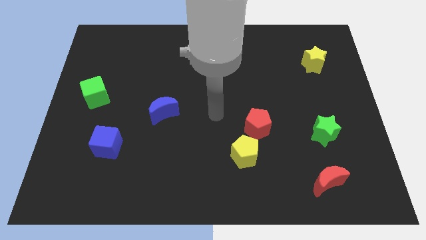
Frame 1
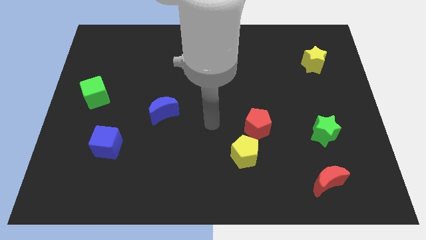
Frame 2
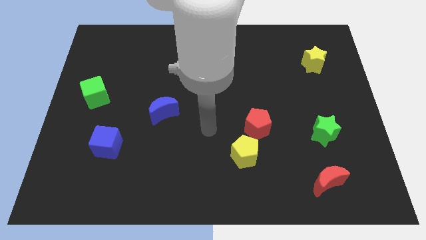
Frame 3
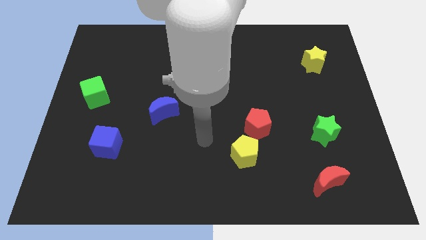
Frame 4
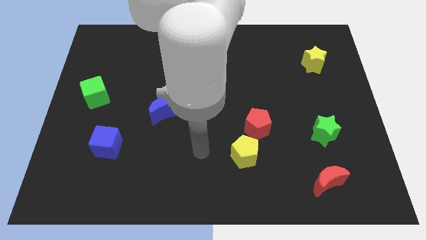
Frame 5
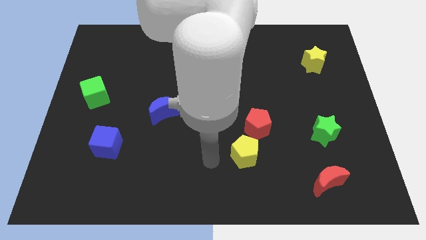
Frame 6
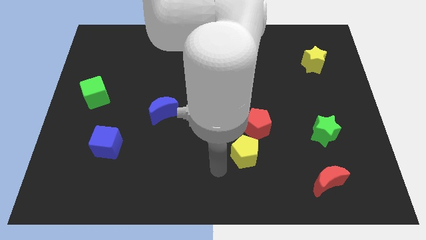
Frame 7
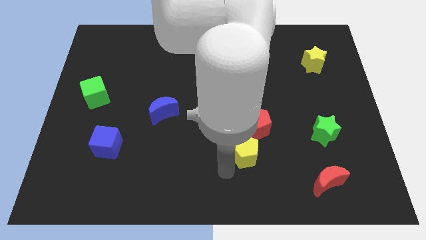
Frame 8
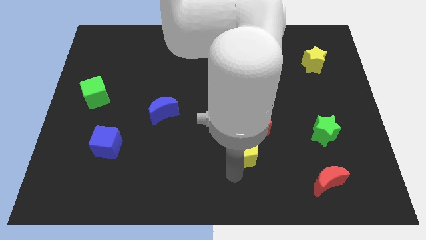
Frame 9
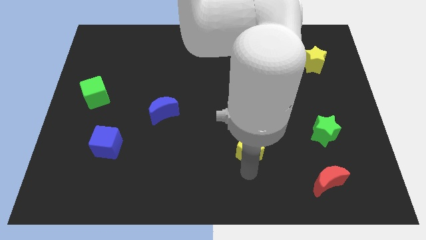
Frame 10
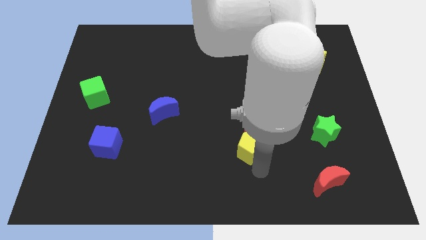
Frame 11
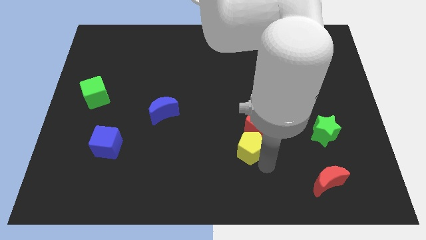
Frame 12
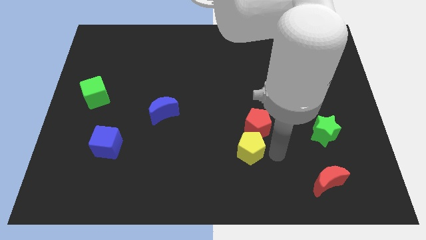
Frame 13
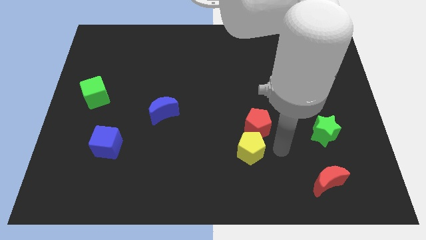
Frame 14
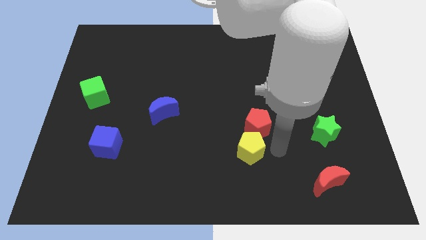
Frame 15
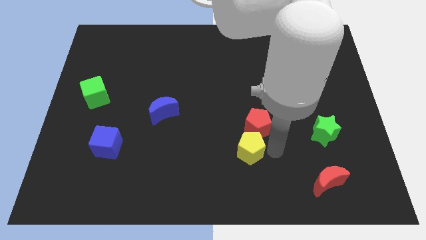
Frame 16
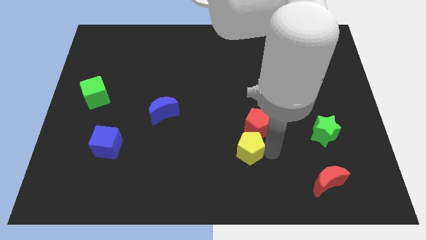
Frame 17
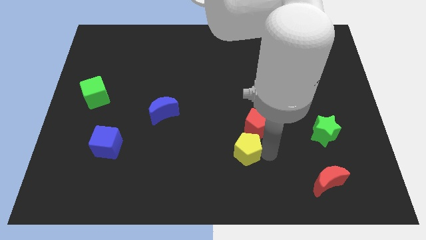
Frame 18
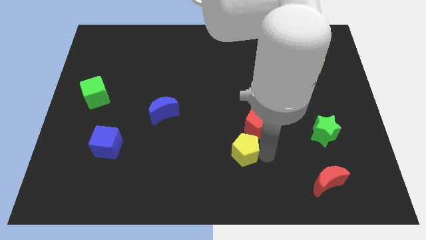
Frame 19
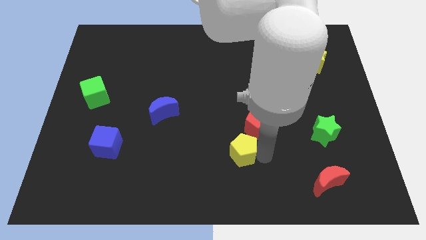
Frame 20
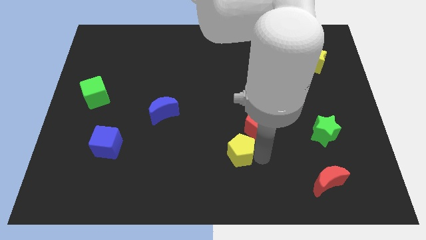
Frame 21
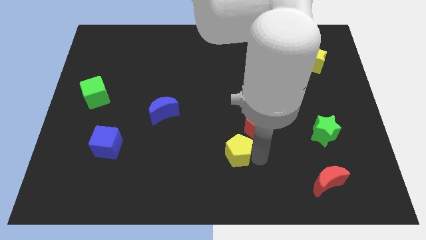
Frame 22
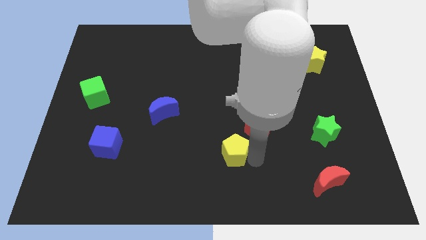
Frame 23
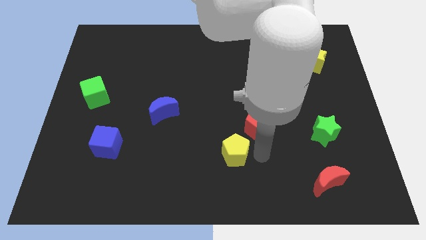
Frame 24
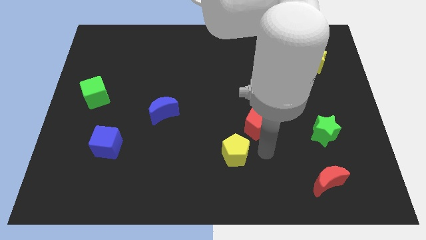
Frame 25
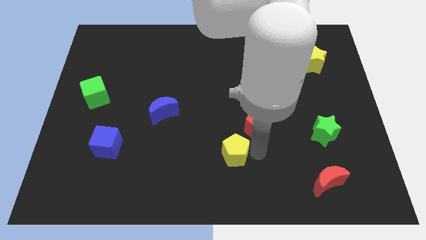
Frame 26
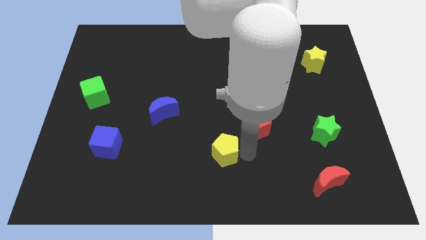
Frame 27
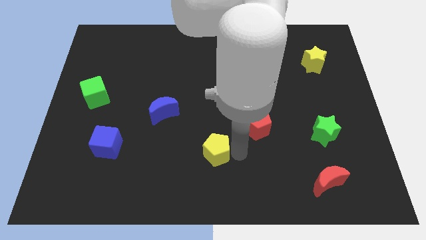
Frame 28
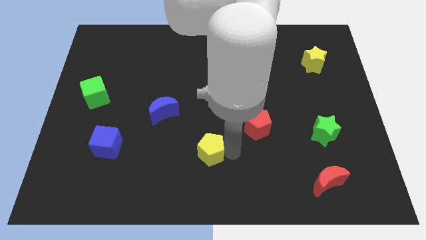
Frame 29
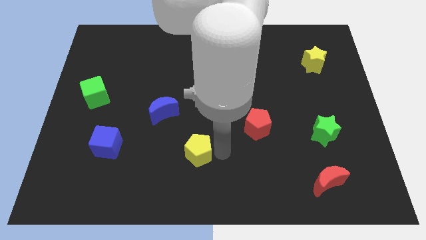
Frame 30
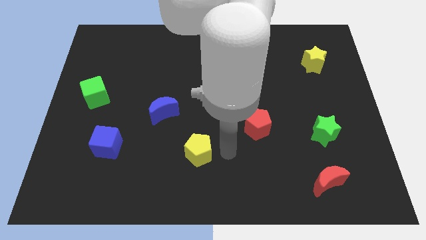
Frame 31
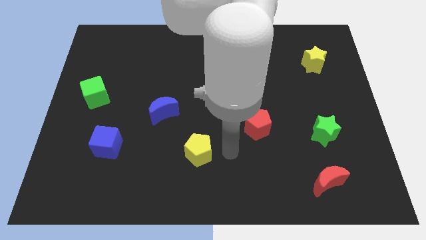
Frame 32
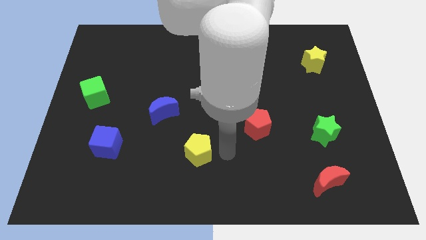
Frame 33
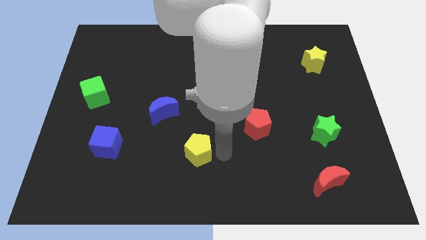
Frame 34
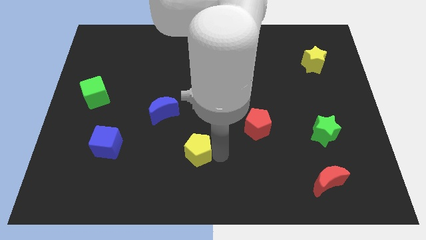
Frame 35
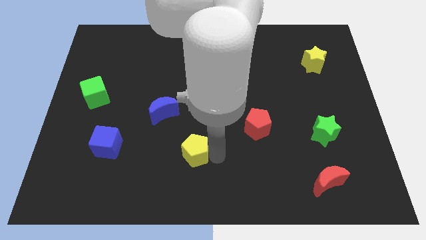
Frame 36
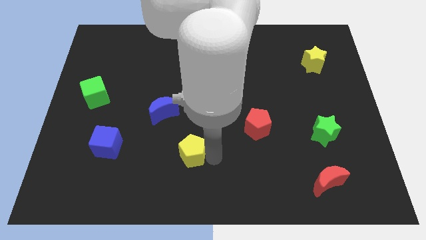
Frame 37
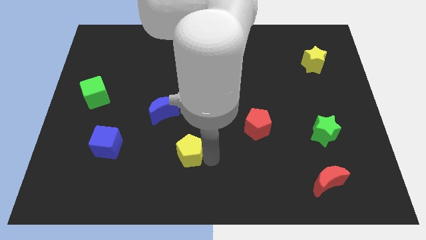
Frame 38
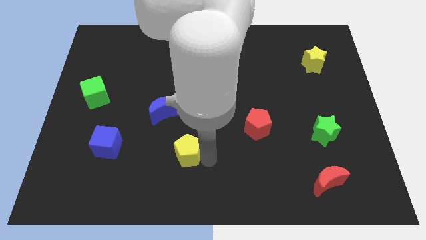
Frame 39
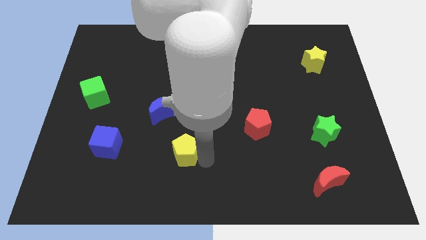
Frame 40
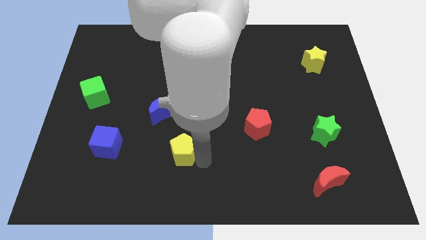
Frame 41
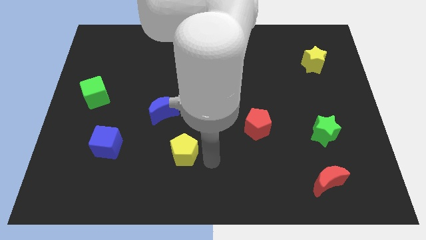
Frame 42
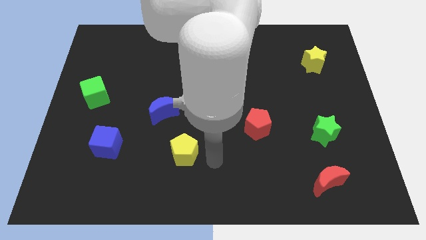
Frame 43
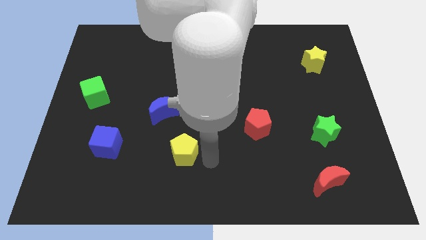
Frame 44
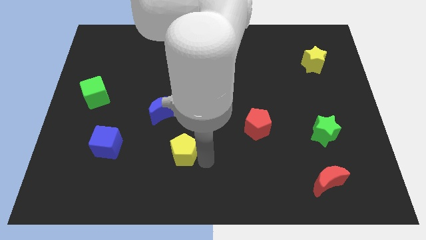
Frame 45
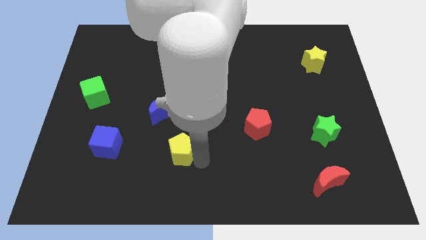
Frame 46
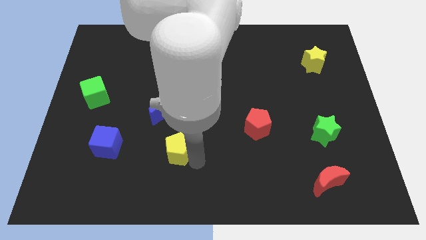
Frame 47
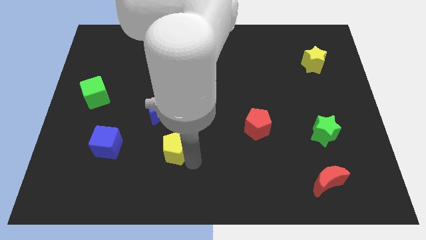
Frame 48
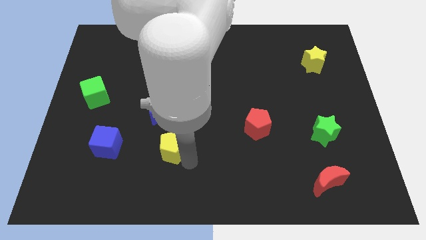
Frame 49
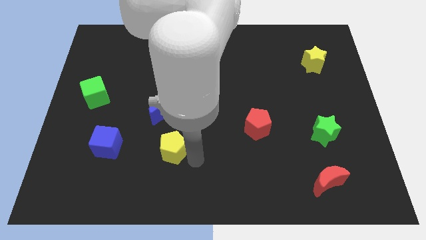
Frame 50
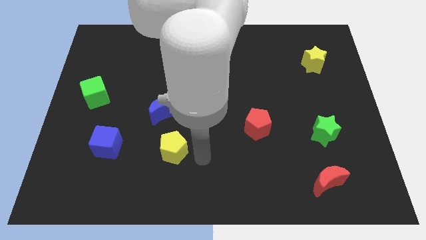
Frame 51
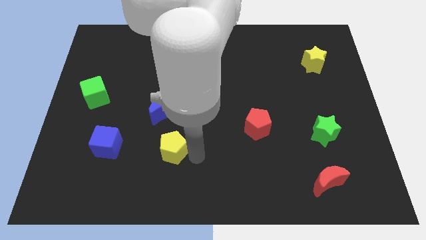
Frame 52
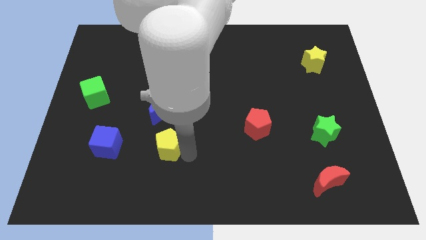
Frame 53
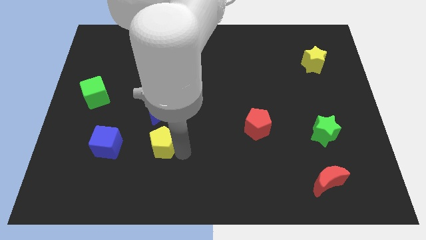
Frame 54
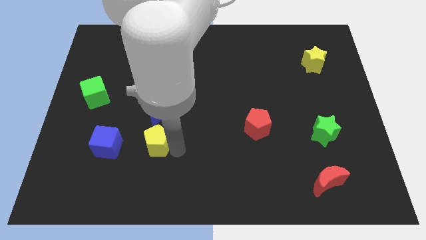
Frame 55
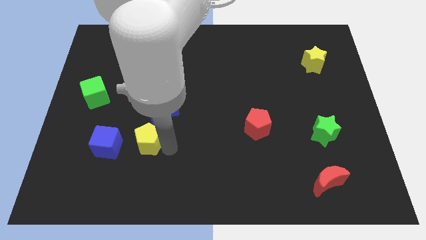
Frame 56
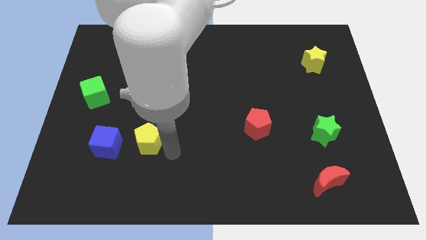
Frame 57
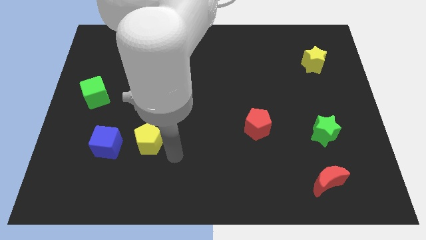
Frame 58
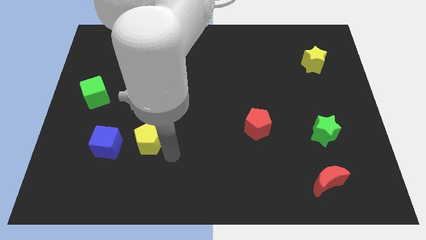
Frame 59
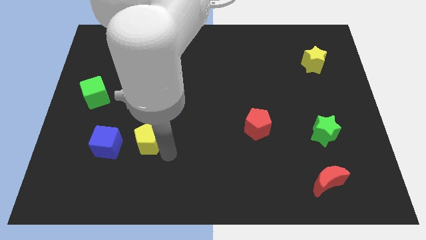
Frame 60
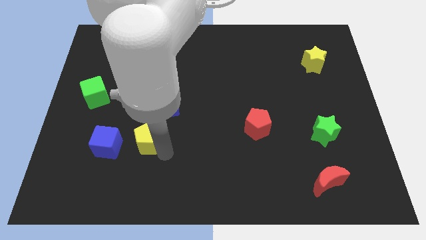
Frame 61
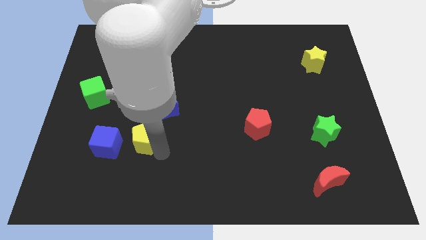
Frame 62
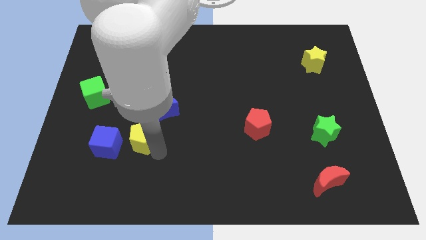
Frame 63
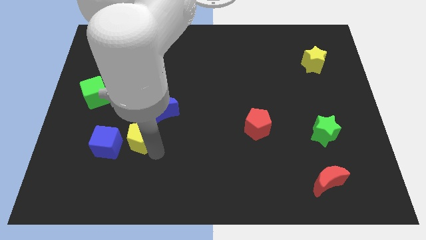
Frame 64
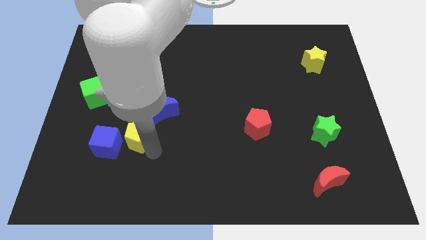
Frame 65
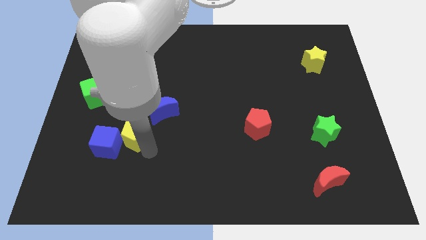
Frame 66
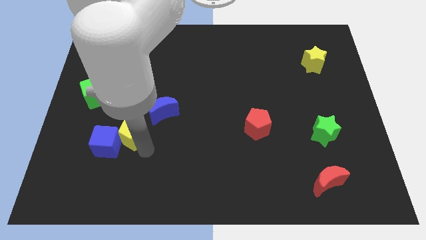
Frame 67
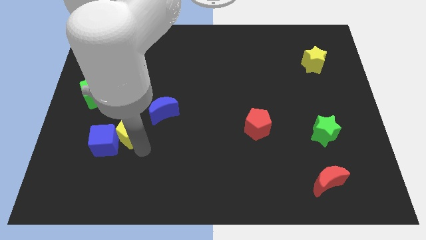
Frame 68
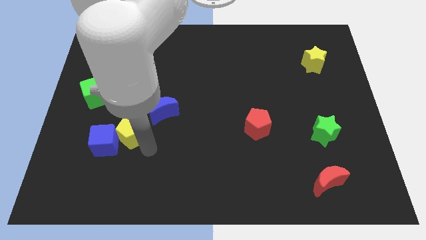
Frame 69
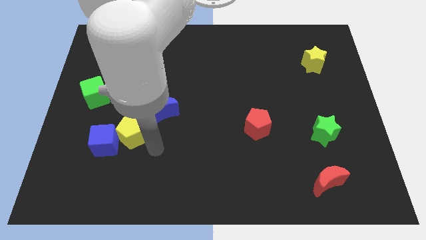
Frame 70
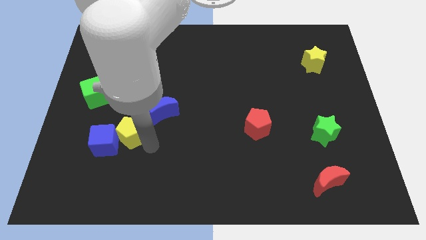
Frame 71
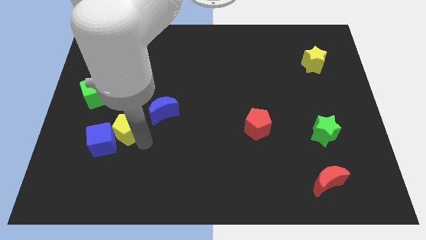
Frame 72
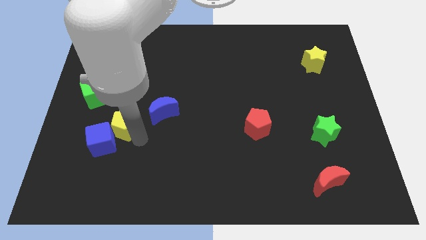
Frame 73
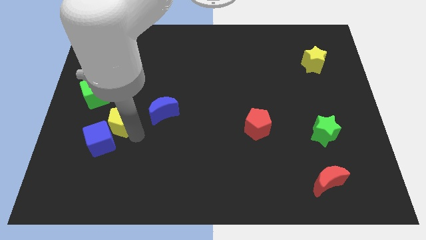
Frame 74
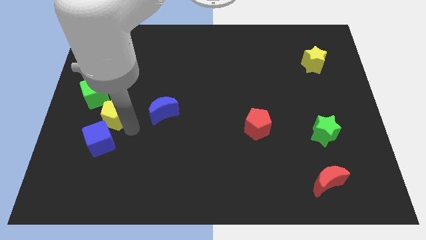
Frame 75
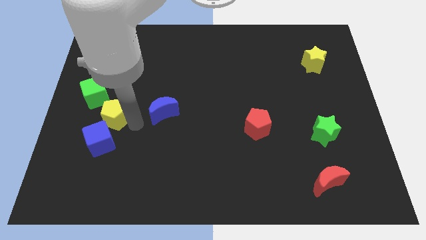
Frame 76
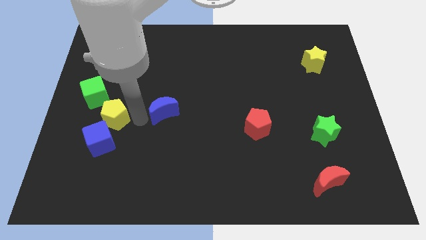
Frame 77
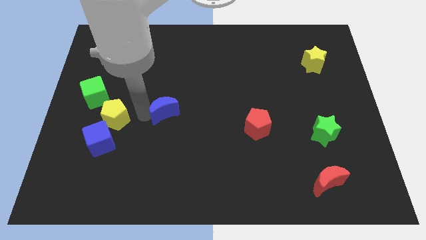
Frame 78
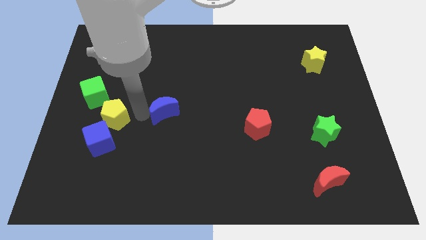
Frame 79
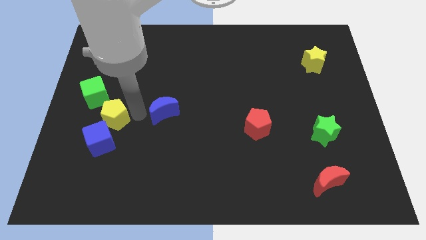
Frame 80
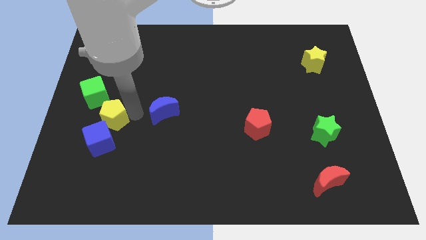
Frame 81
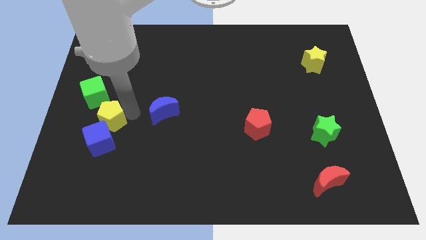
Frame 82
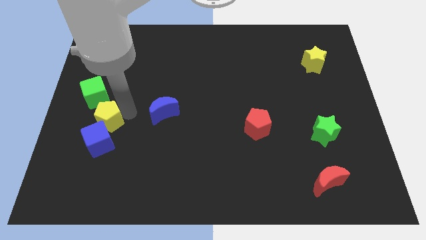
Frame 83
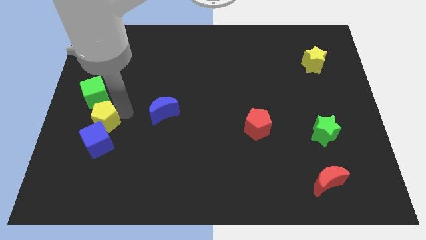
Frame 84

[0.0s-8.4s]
move the yellow pentagon diagonally up and to the left of the blue cube
